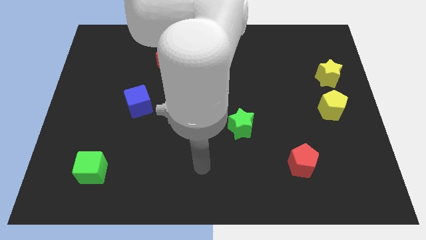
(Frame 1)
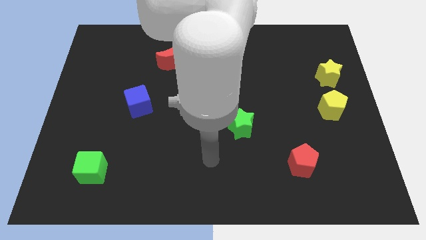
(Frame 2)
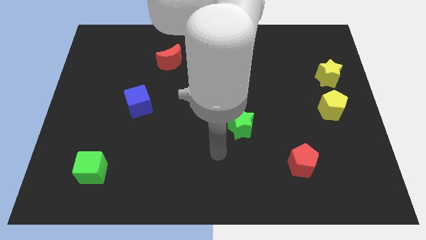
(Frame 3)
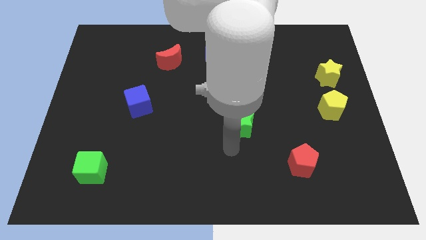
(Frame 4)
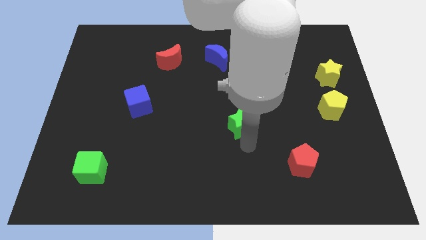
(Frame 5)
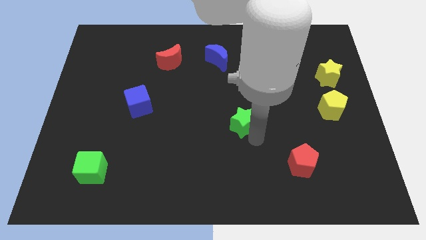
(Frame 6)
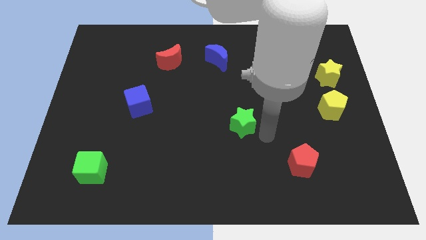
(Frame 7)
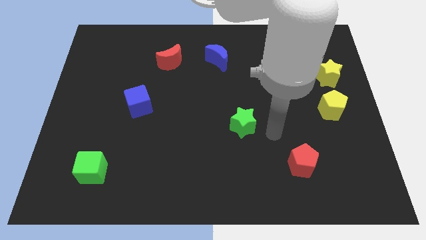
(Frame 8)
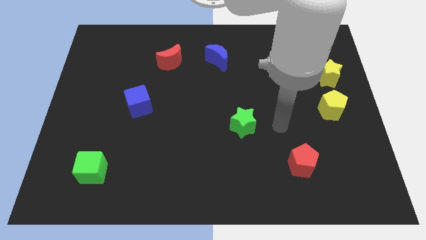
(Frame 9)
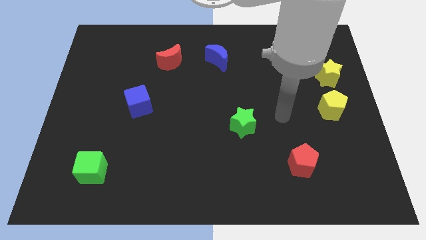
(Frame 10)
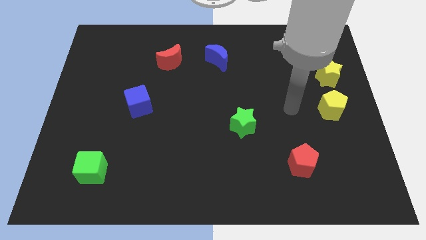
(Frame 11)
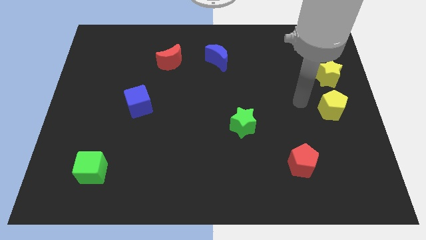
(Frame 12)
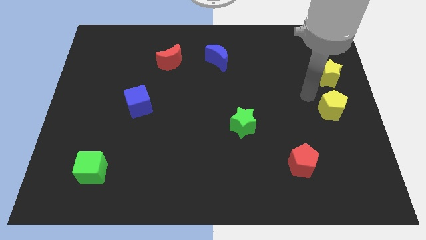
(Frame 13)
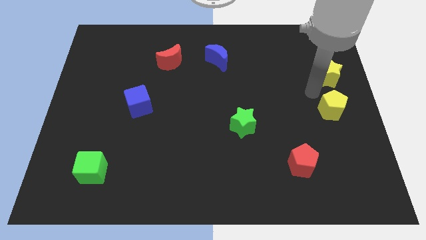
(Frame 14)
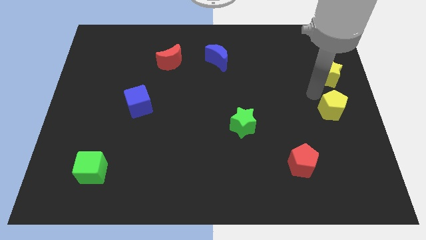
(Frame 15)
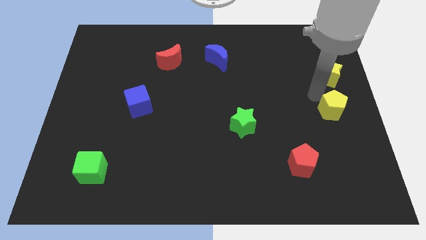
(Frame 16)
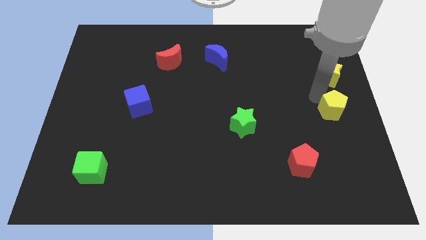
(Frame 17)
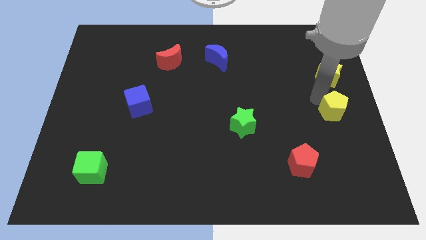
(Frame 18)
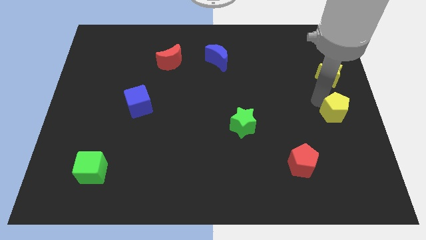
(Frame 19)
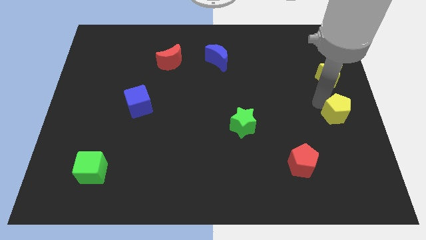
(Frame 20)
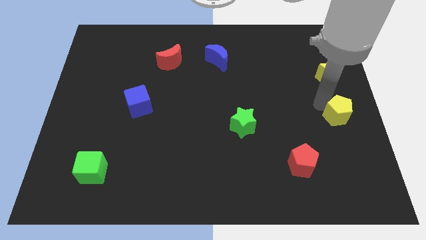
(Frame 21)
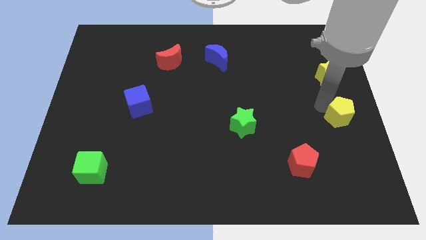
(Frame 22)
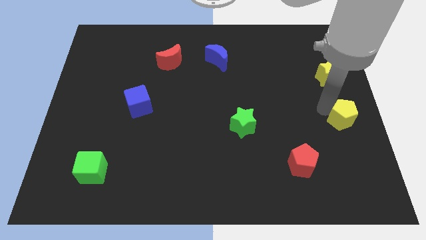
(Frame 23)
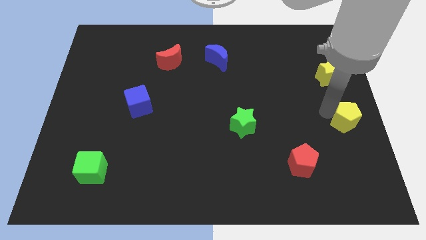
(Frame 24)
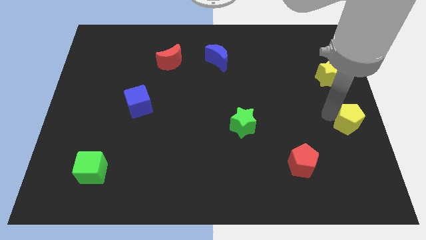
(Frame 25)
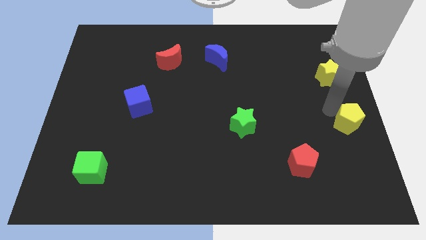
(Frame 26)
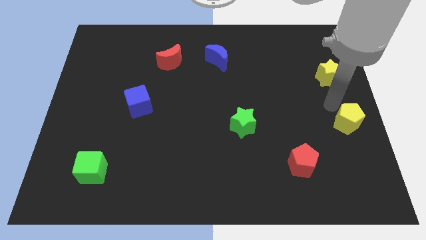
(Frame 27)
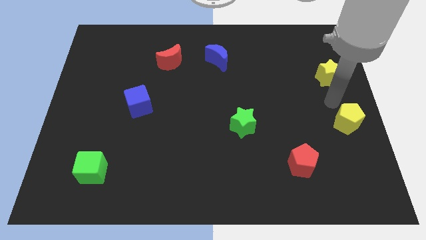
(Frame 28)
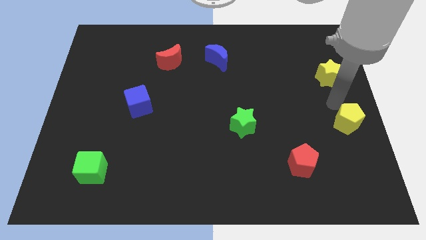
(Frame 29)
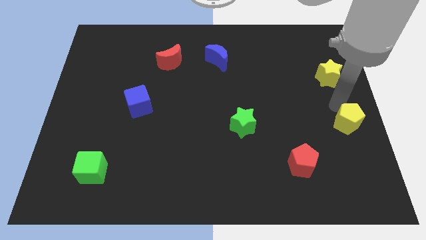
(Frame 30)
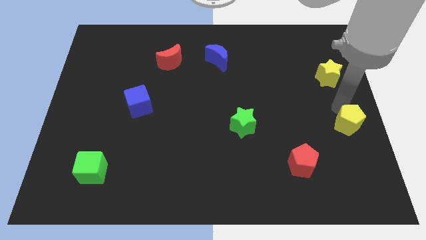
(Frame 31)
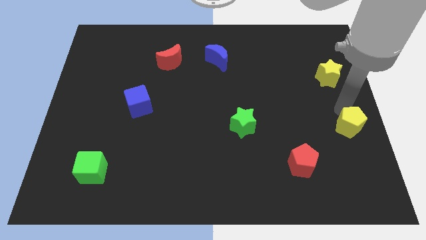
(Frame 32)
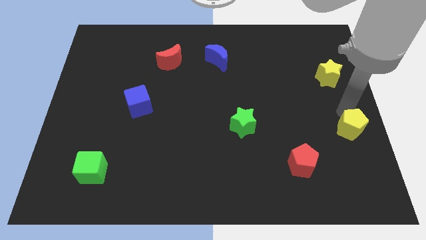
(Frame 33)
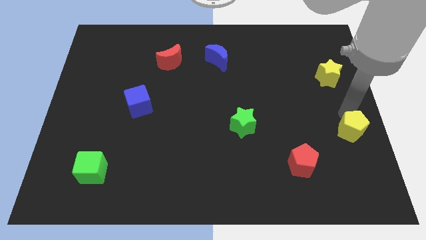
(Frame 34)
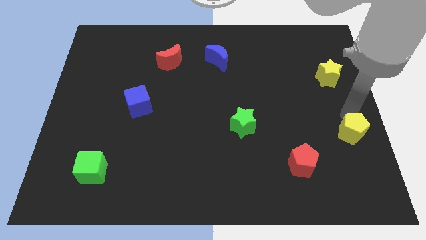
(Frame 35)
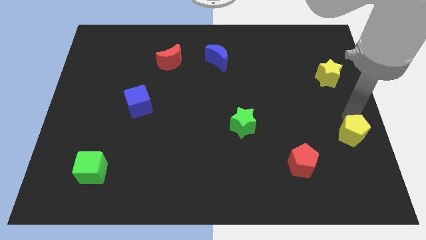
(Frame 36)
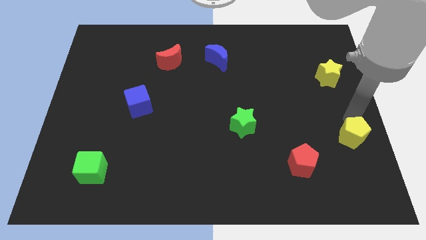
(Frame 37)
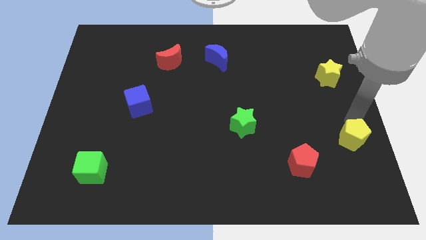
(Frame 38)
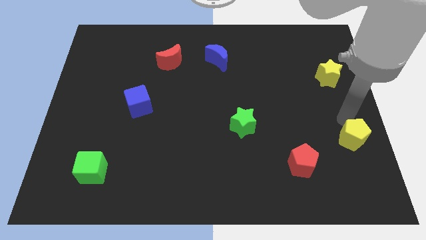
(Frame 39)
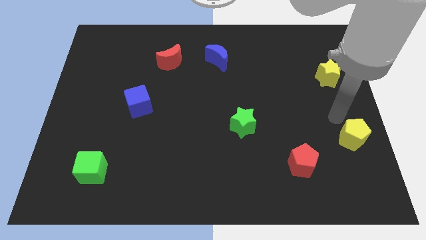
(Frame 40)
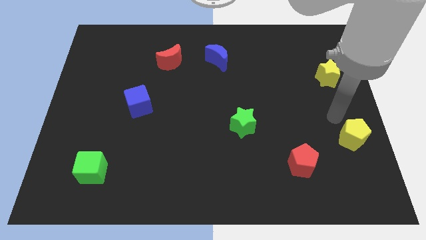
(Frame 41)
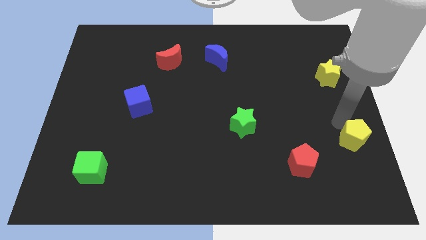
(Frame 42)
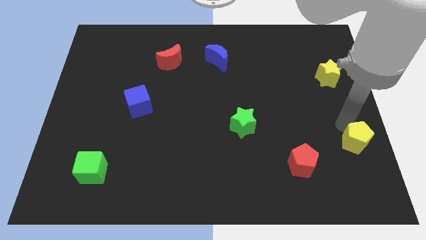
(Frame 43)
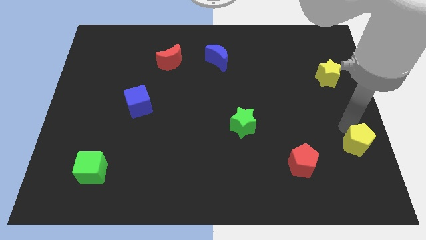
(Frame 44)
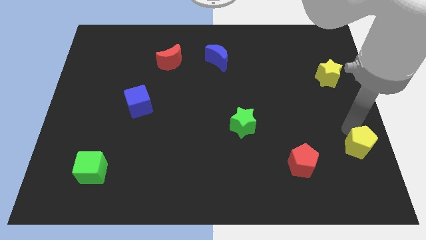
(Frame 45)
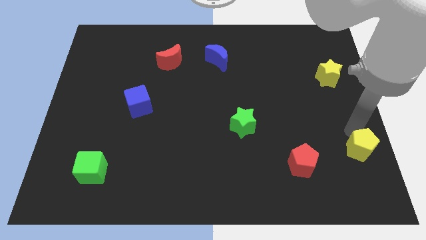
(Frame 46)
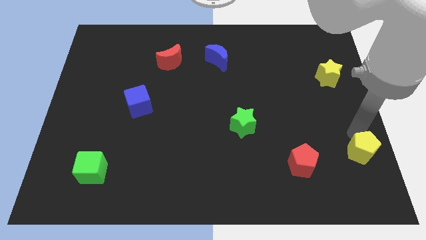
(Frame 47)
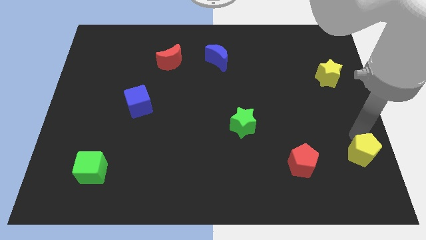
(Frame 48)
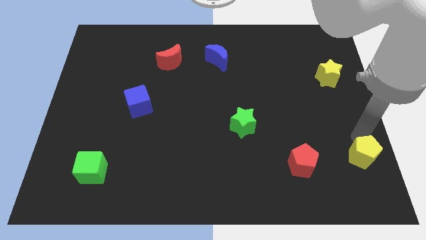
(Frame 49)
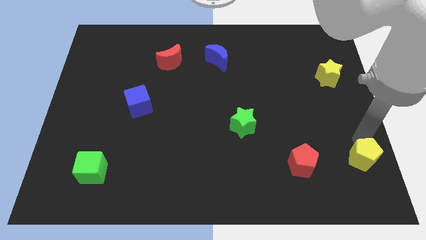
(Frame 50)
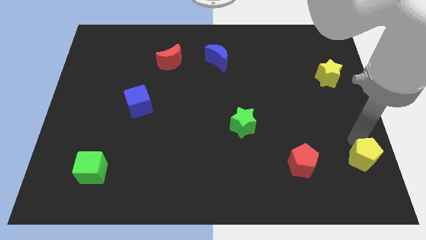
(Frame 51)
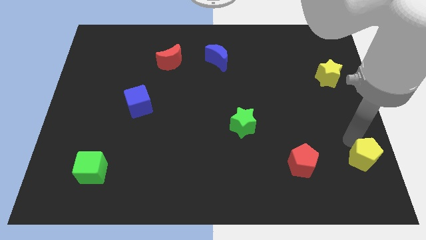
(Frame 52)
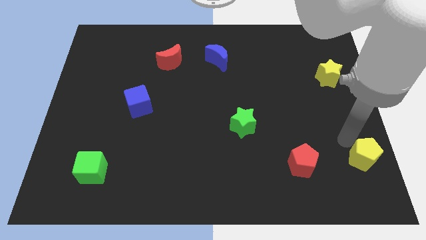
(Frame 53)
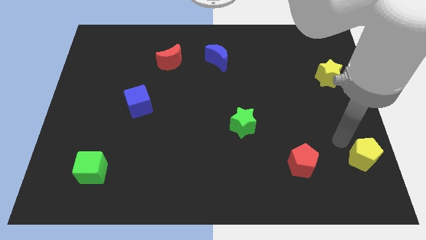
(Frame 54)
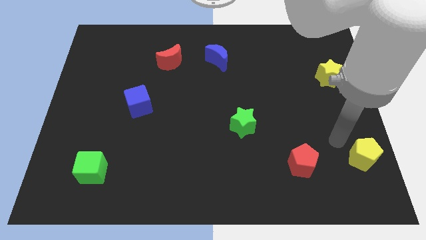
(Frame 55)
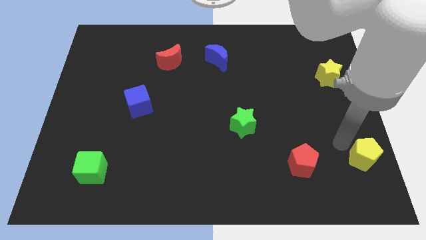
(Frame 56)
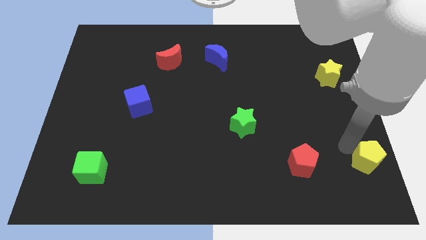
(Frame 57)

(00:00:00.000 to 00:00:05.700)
put the yellow pentagon to the lower right corner
